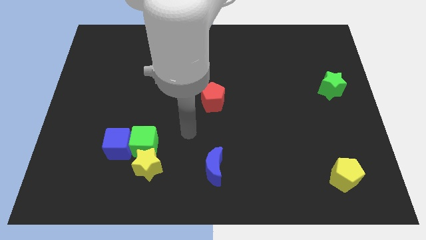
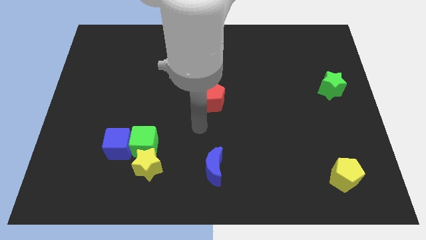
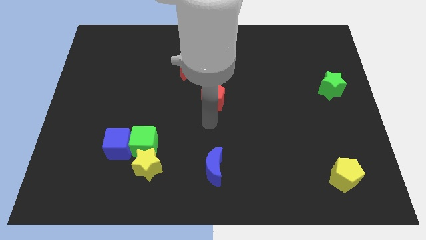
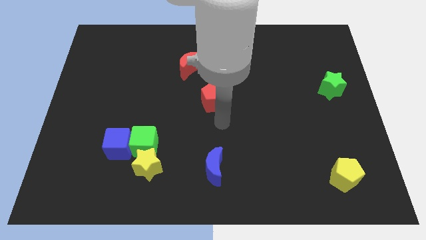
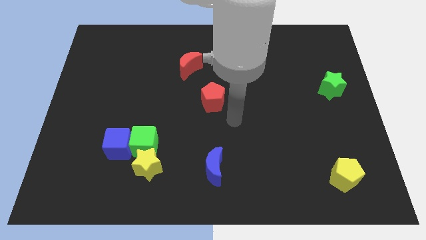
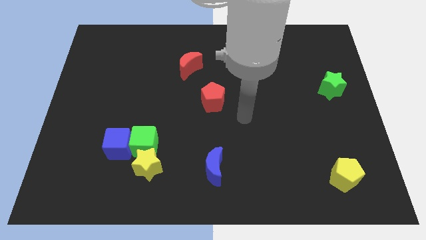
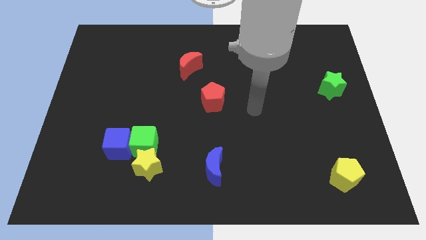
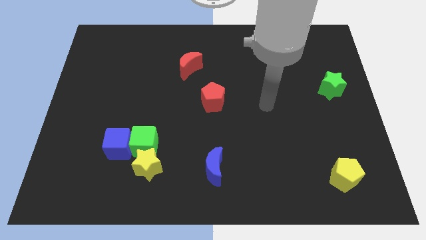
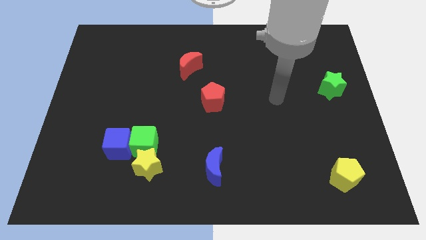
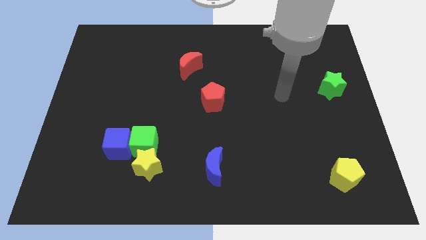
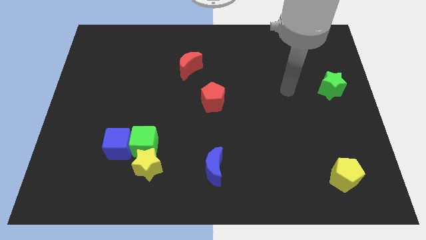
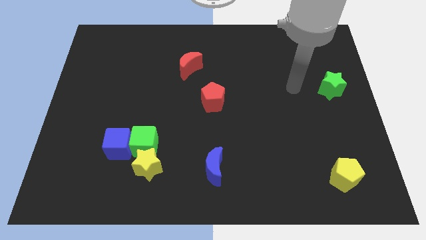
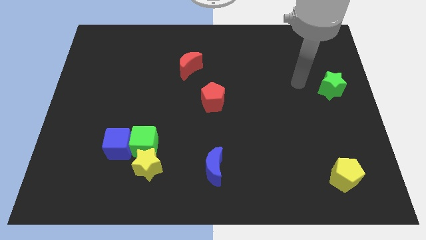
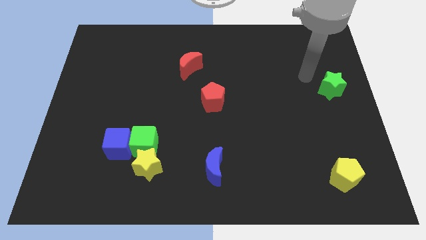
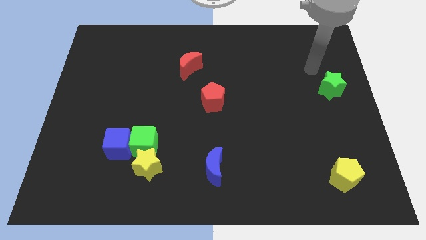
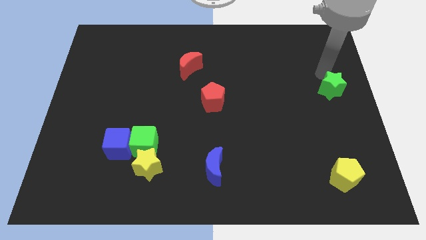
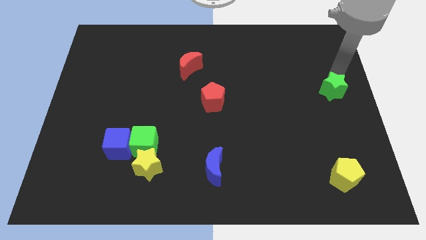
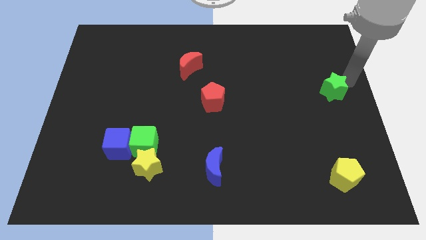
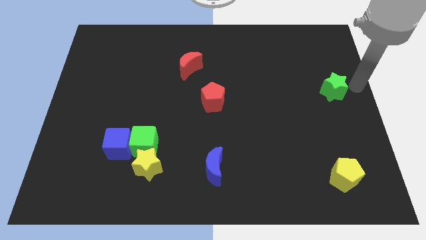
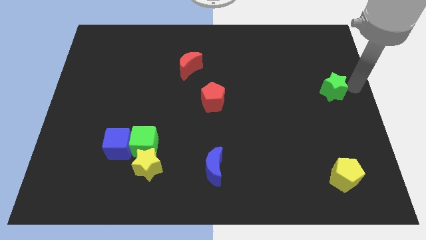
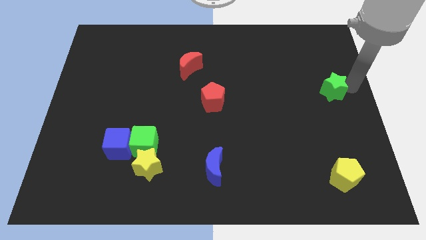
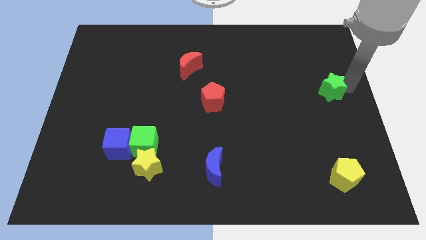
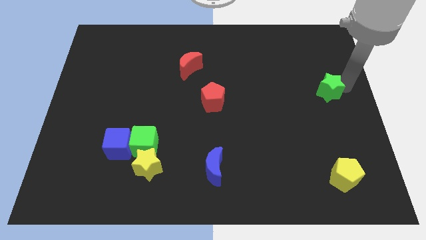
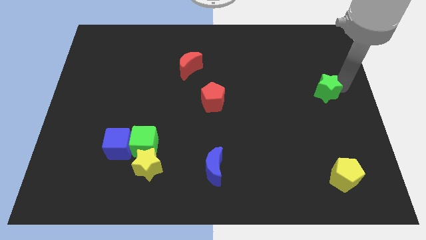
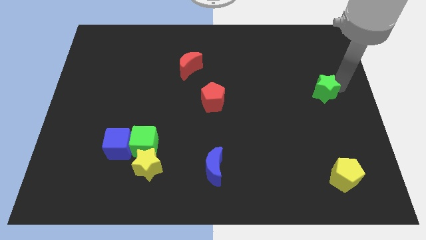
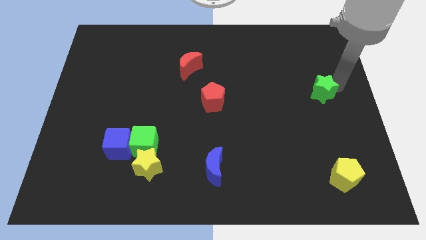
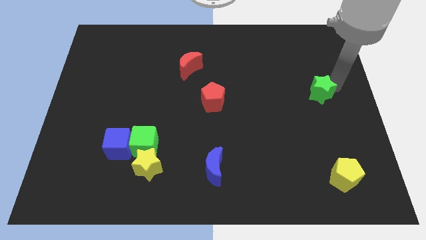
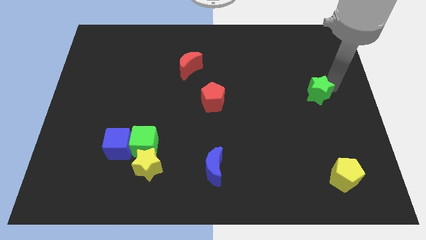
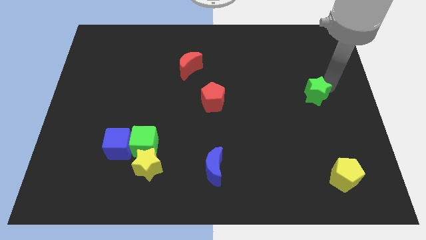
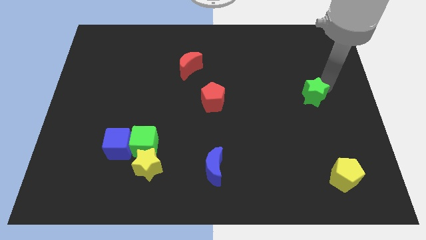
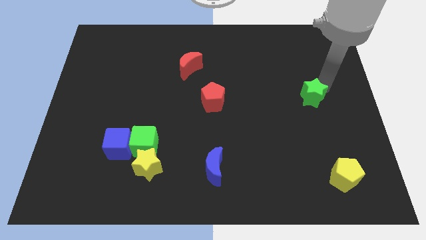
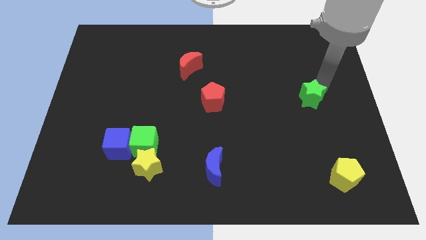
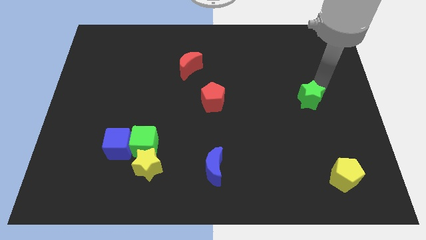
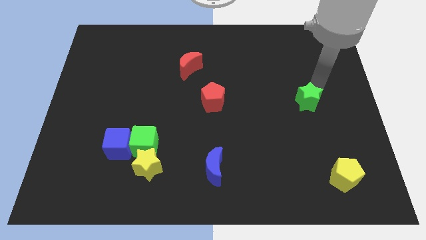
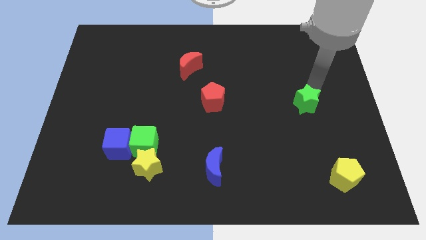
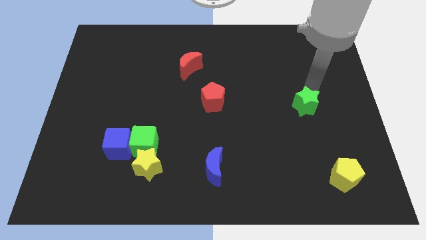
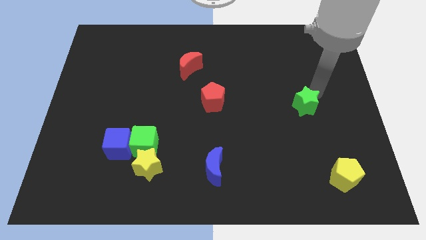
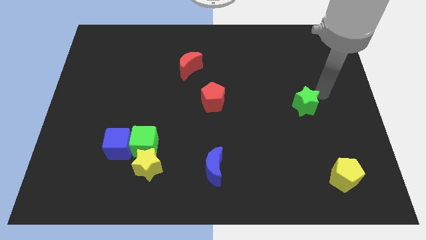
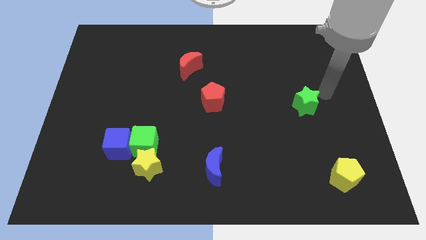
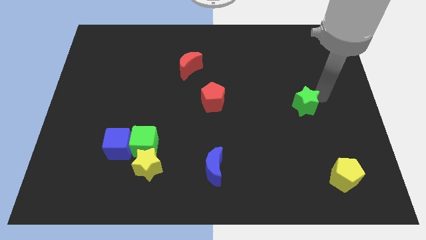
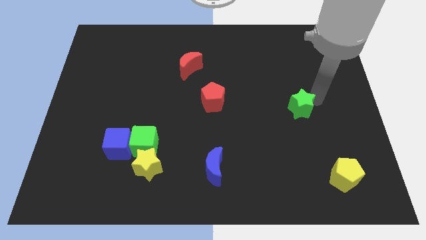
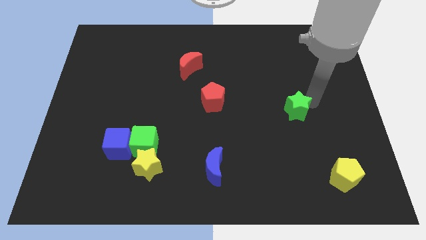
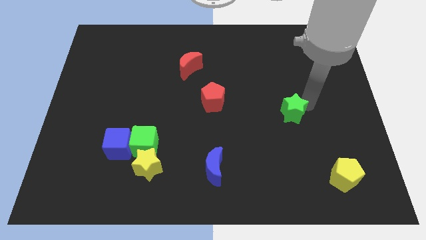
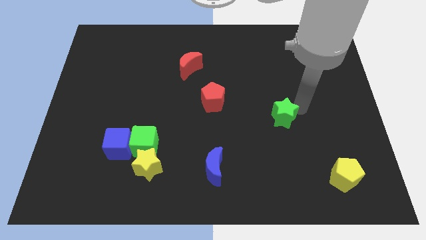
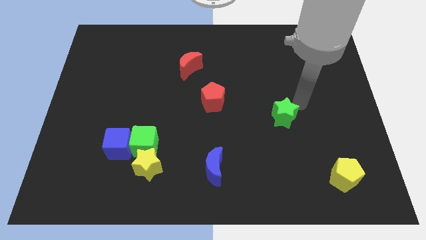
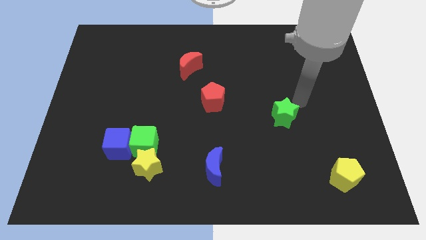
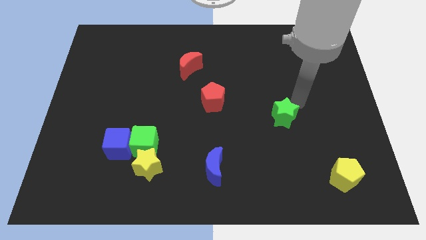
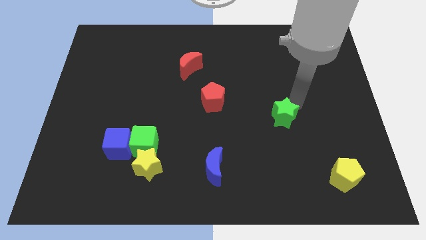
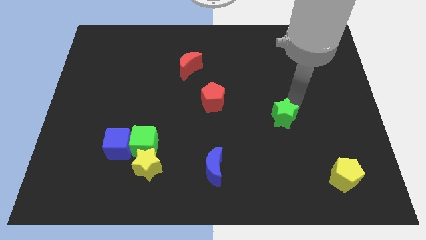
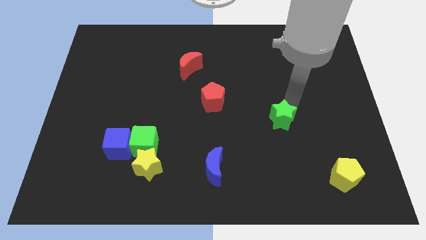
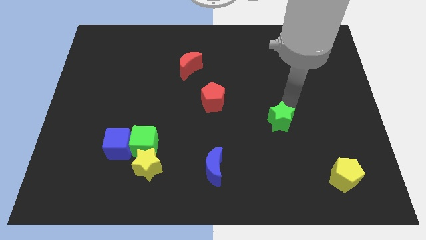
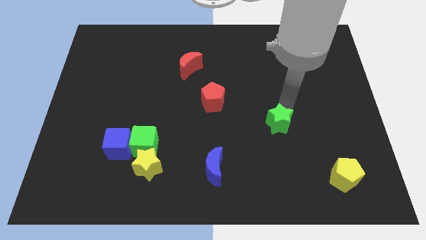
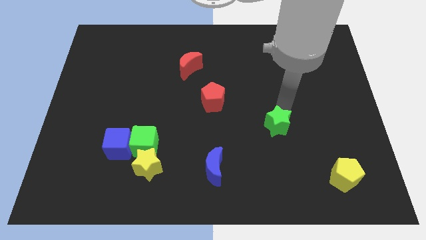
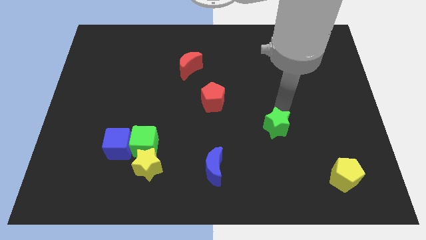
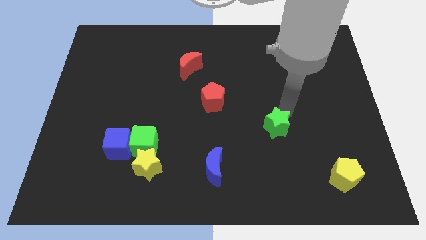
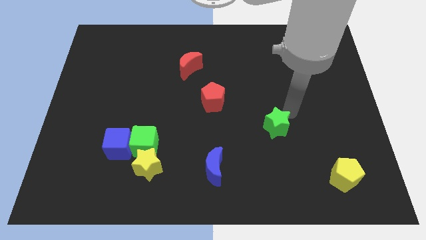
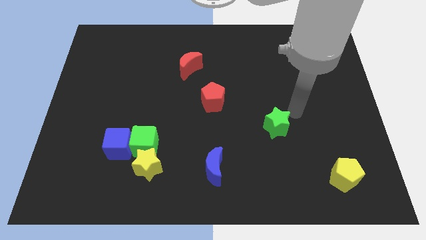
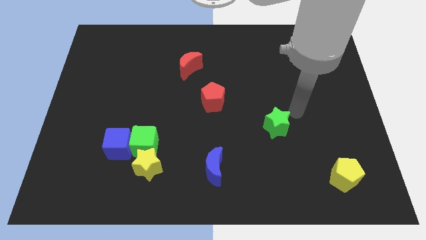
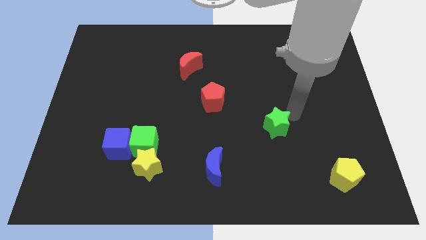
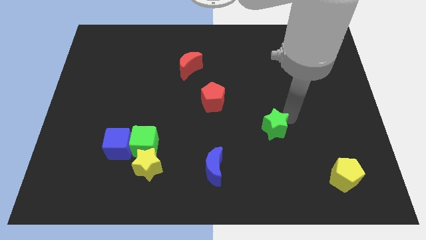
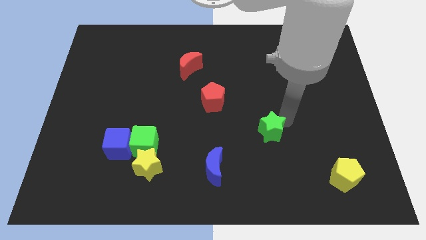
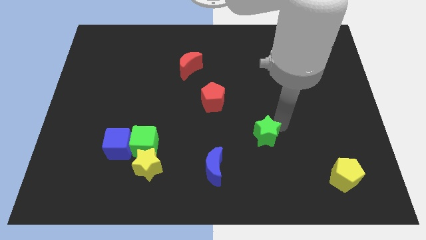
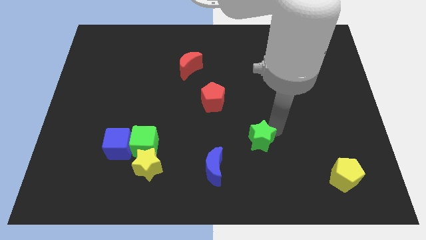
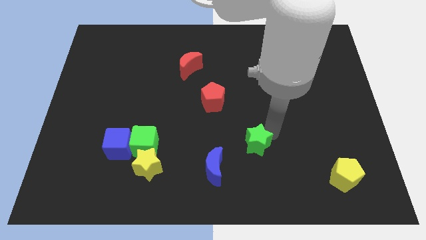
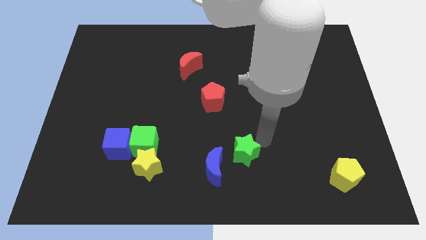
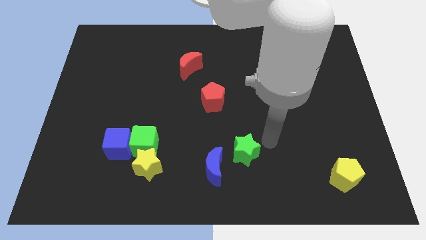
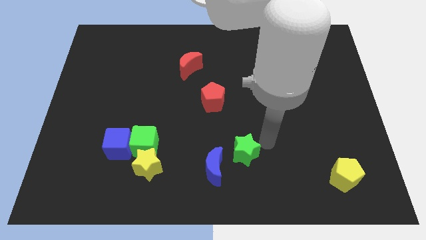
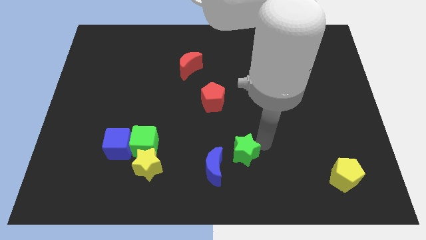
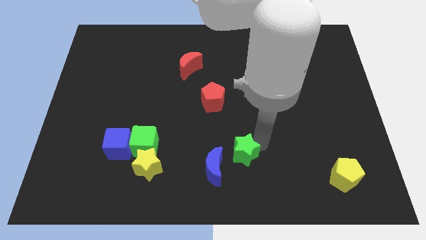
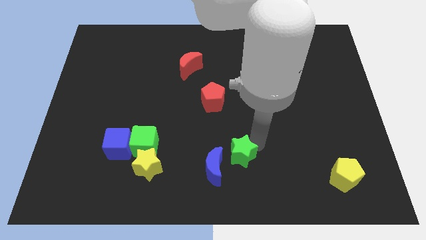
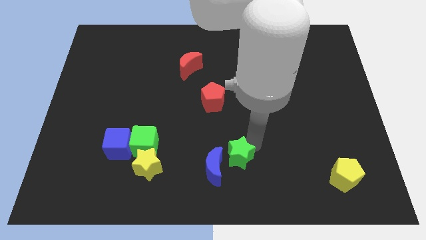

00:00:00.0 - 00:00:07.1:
move the green star towards the blue moon
